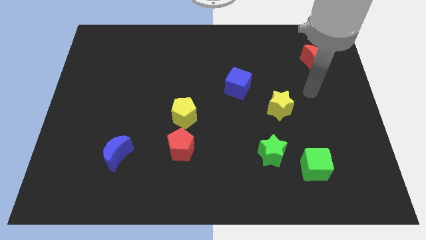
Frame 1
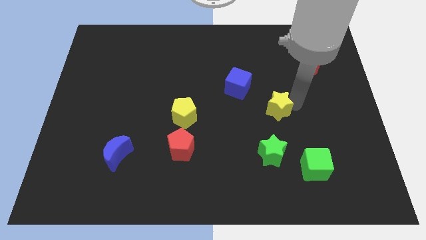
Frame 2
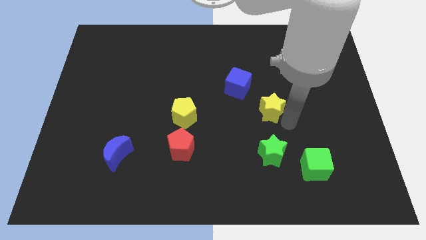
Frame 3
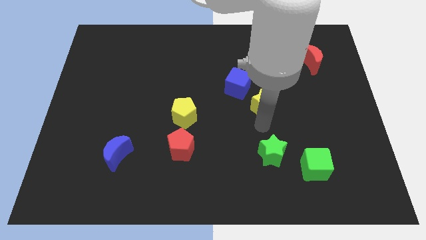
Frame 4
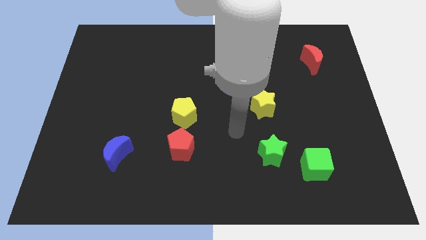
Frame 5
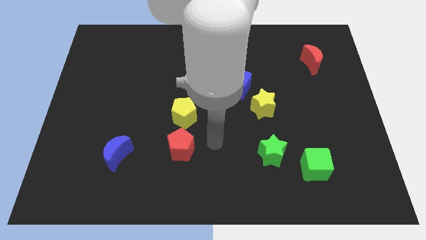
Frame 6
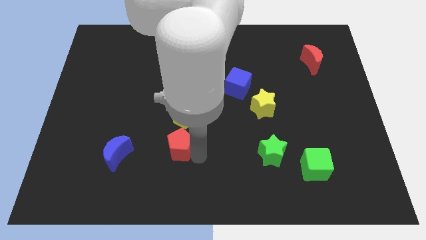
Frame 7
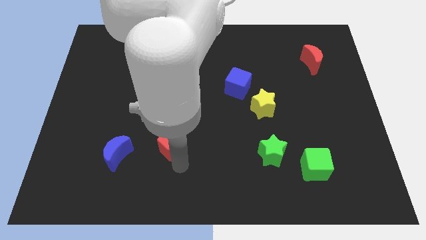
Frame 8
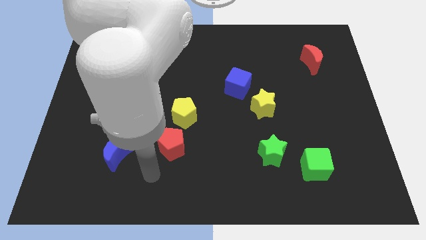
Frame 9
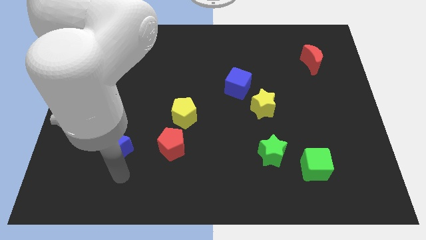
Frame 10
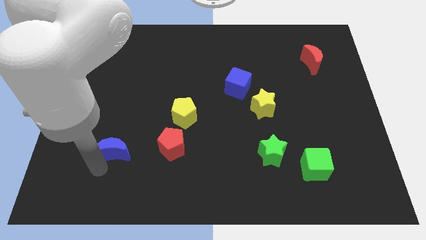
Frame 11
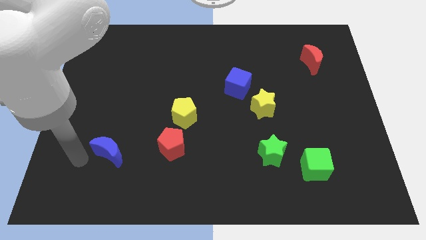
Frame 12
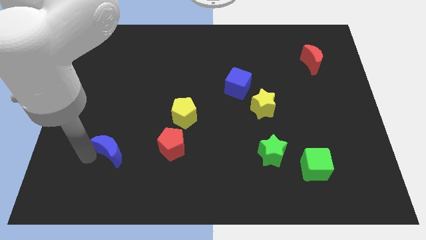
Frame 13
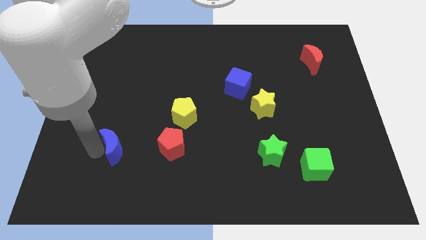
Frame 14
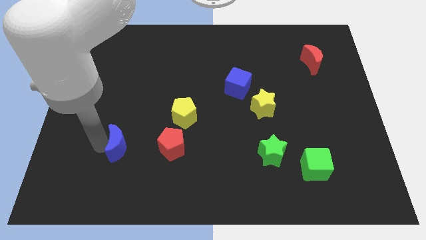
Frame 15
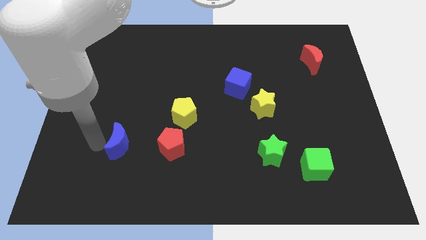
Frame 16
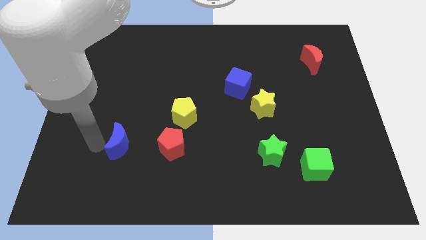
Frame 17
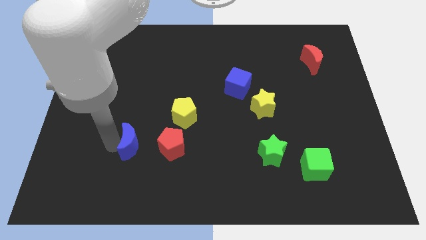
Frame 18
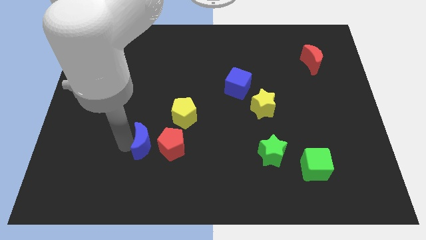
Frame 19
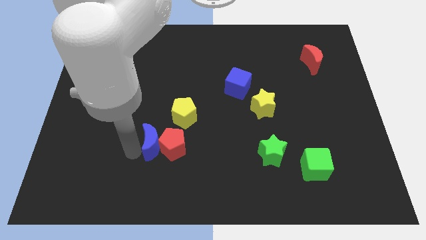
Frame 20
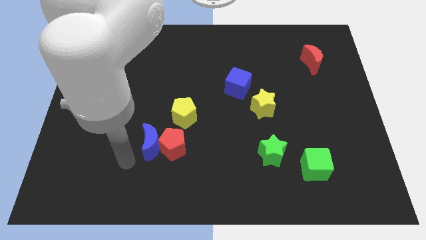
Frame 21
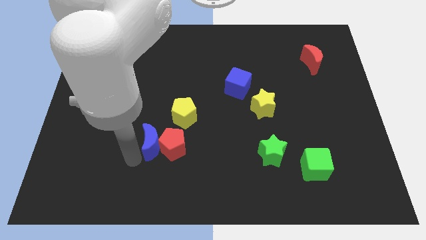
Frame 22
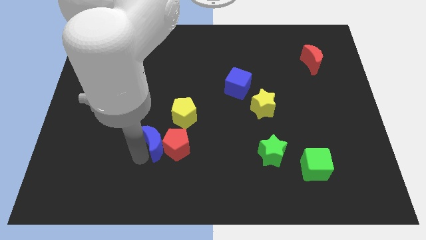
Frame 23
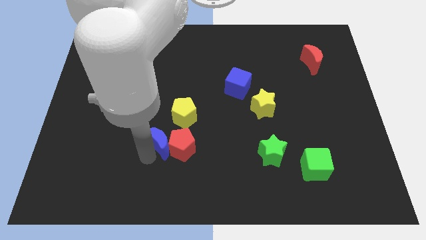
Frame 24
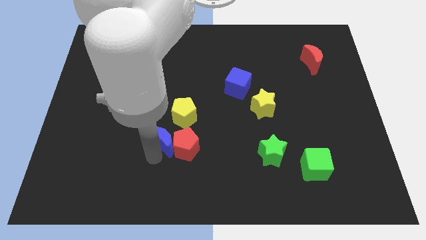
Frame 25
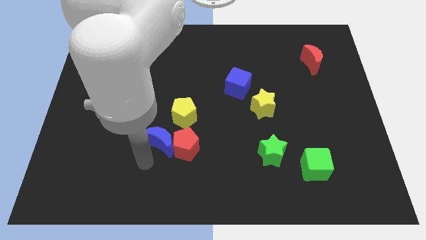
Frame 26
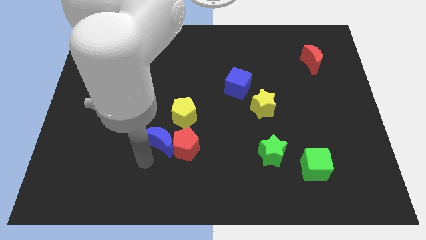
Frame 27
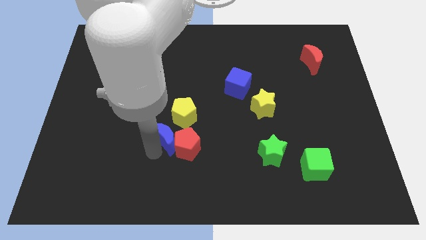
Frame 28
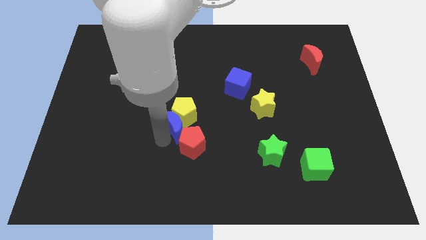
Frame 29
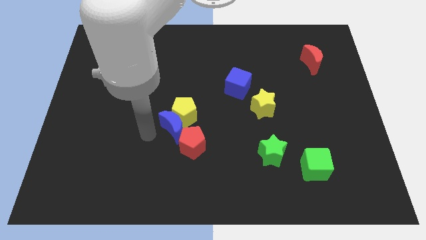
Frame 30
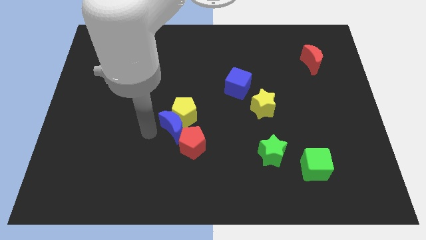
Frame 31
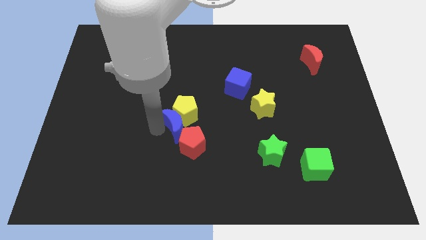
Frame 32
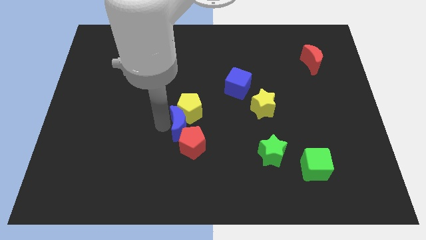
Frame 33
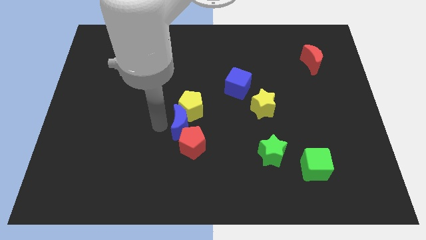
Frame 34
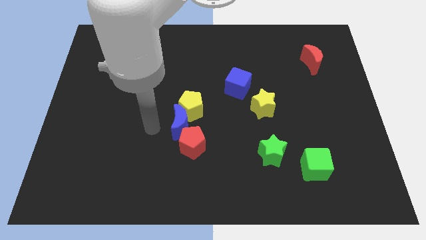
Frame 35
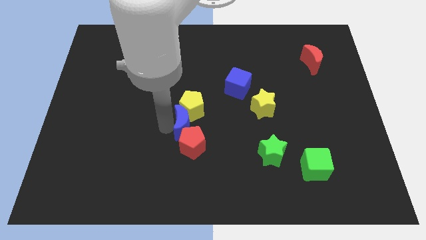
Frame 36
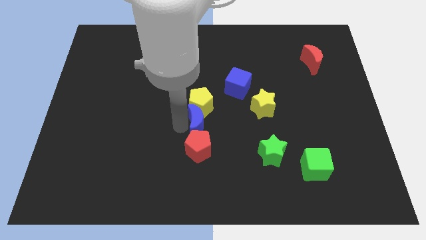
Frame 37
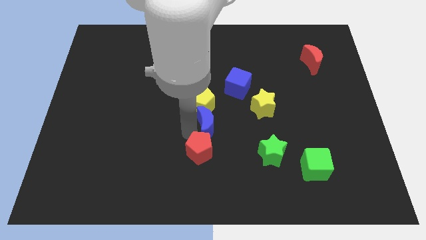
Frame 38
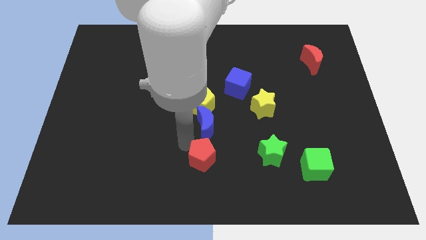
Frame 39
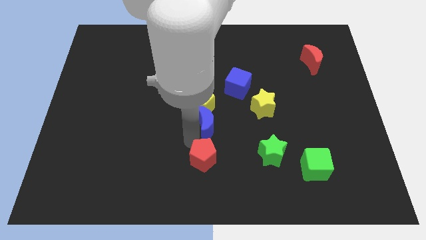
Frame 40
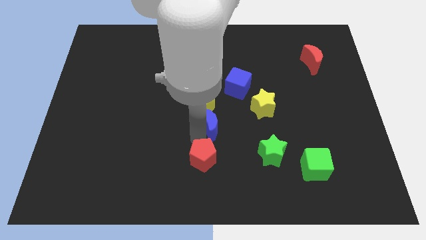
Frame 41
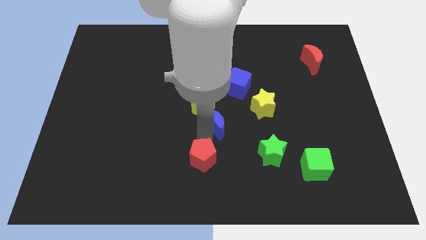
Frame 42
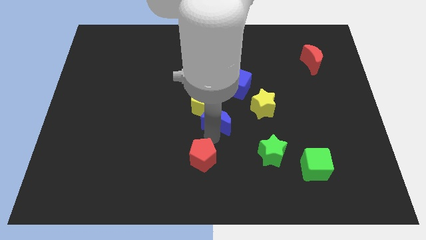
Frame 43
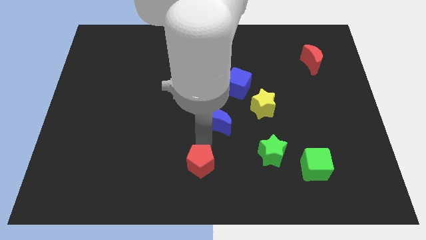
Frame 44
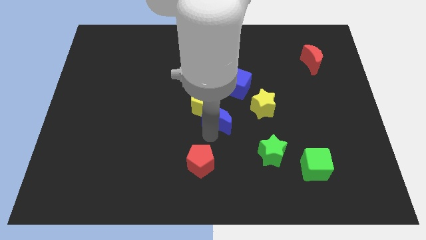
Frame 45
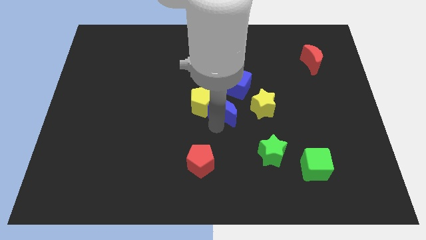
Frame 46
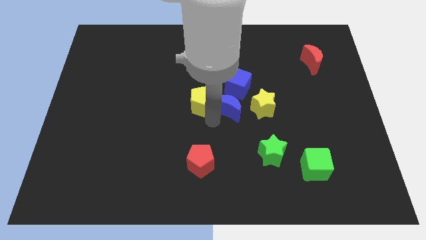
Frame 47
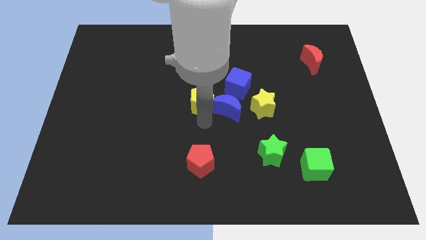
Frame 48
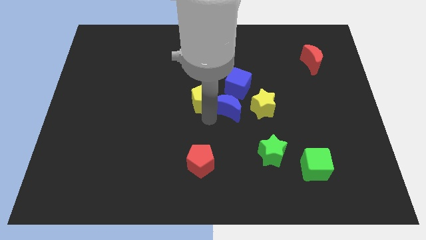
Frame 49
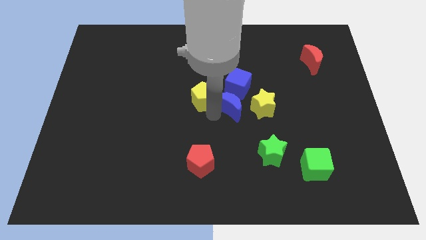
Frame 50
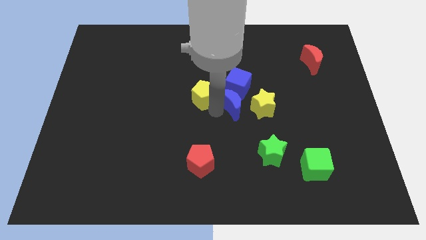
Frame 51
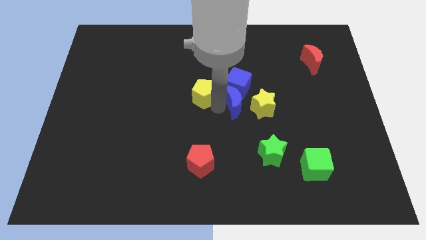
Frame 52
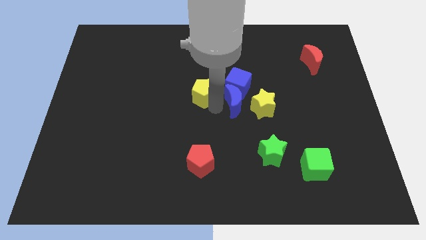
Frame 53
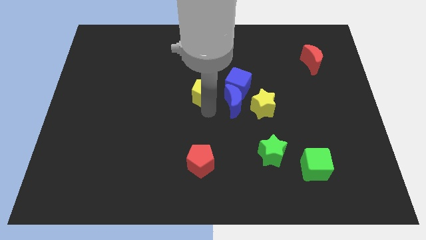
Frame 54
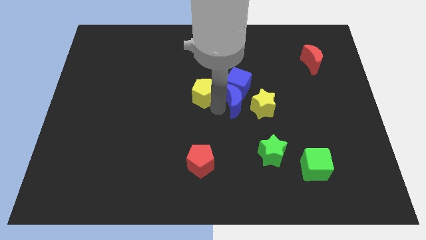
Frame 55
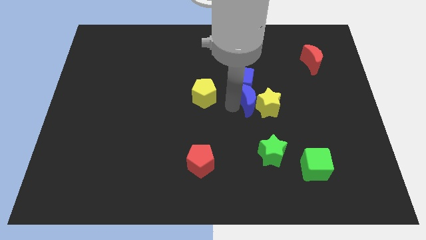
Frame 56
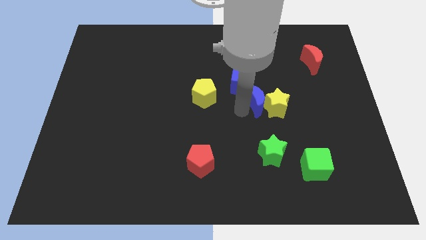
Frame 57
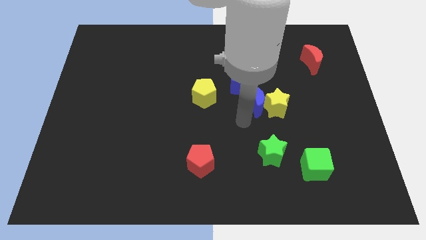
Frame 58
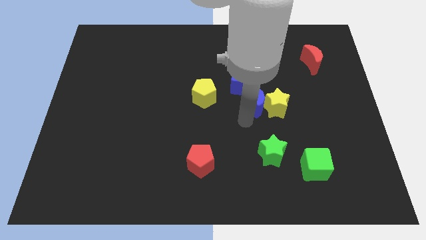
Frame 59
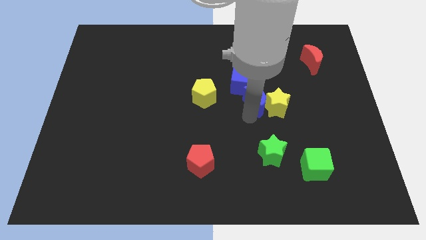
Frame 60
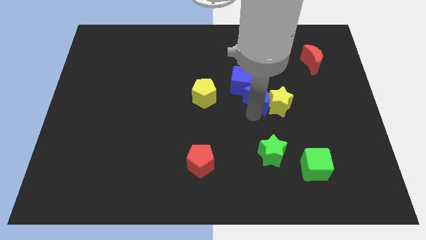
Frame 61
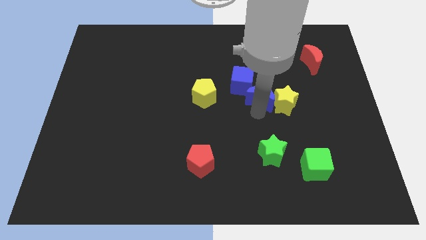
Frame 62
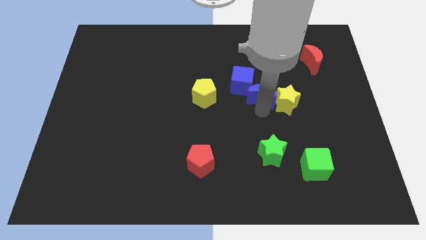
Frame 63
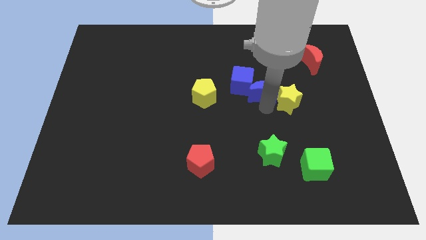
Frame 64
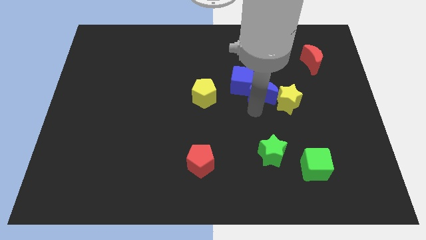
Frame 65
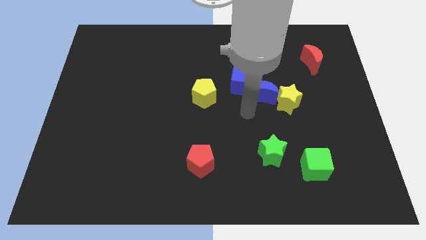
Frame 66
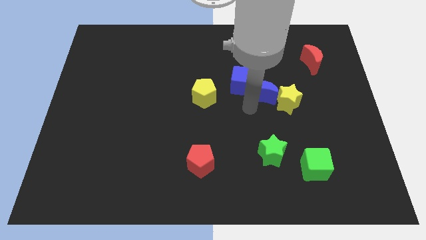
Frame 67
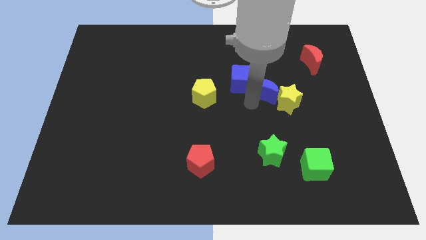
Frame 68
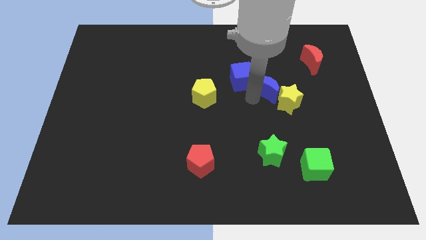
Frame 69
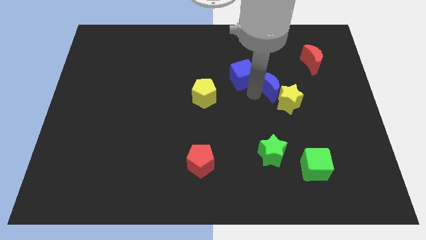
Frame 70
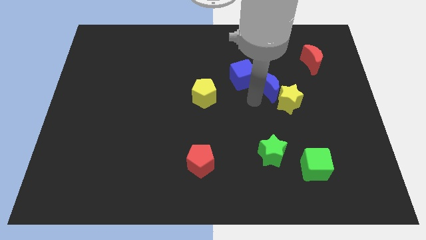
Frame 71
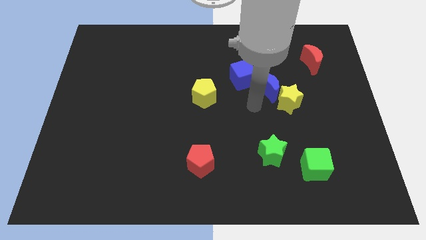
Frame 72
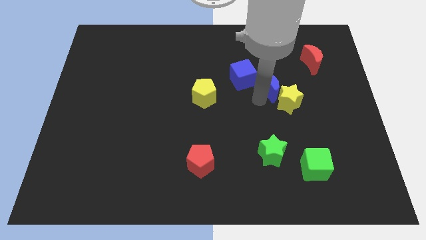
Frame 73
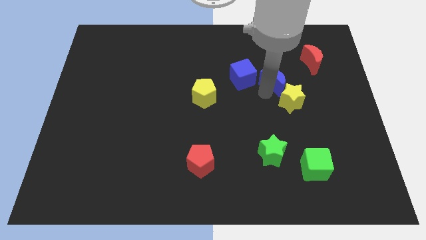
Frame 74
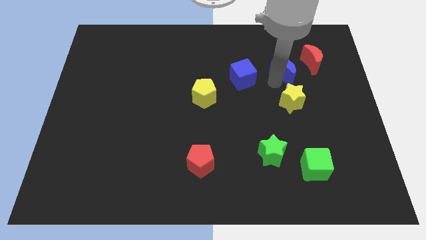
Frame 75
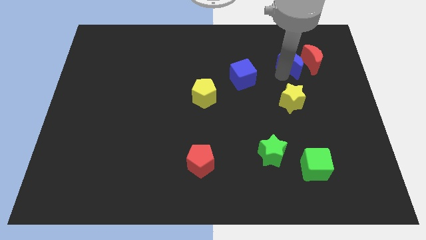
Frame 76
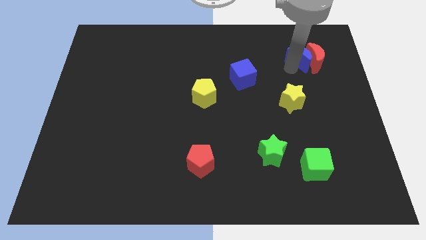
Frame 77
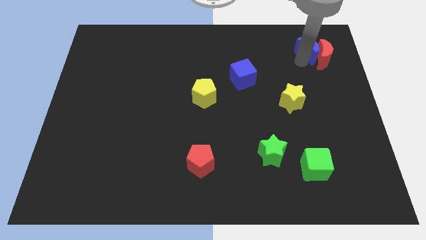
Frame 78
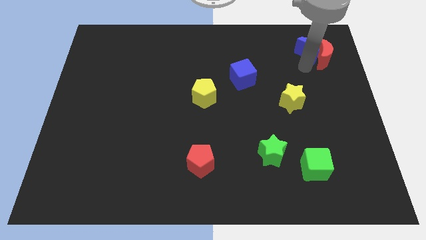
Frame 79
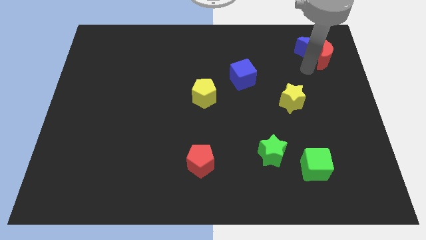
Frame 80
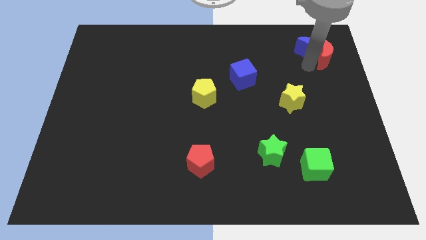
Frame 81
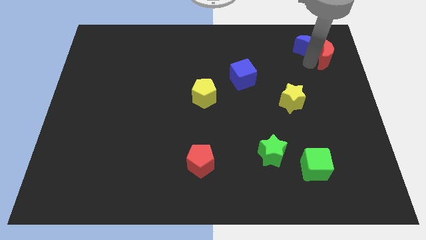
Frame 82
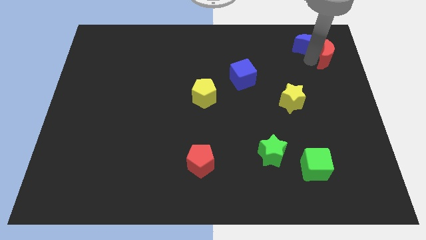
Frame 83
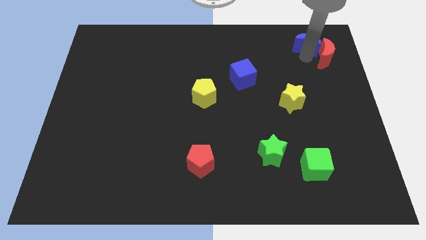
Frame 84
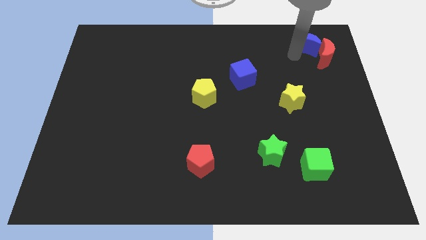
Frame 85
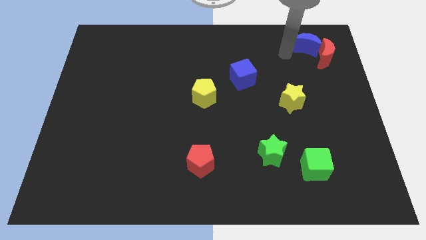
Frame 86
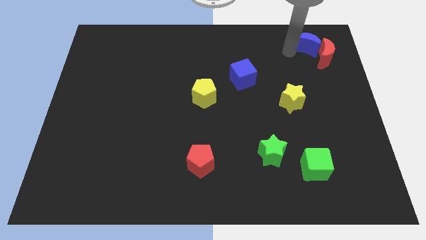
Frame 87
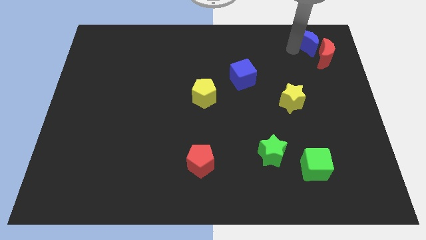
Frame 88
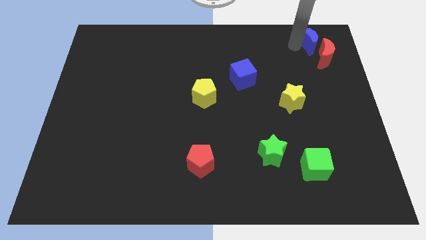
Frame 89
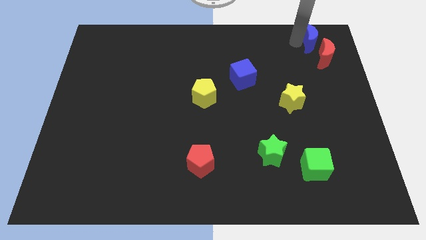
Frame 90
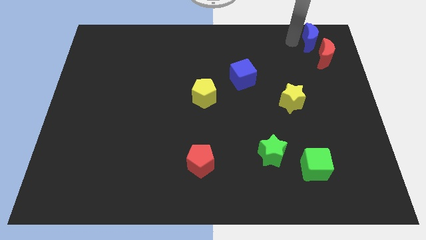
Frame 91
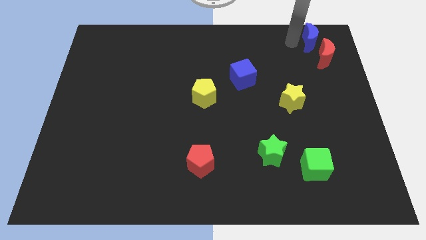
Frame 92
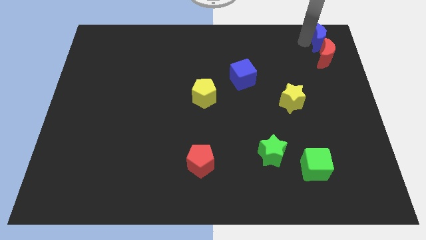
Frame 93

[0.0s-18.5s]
move the blue moon to the top right of the board
